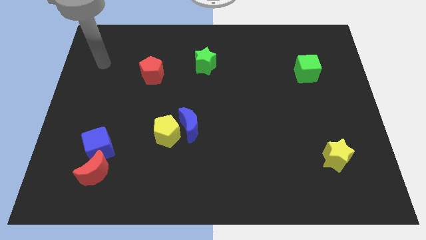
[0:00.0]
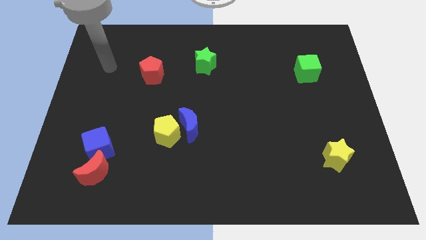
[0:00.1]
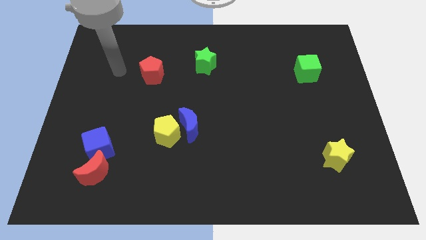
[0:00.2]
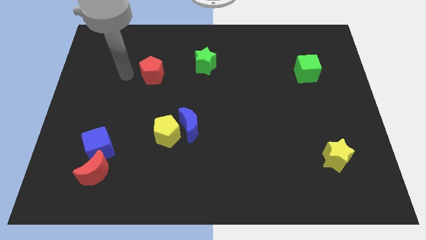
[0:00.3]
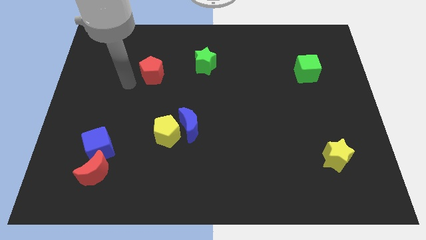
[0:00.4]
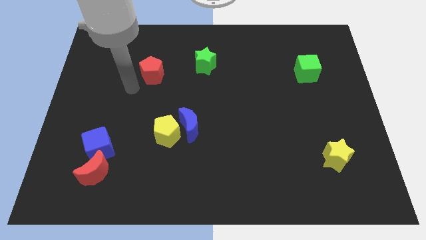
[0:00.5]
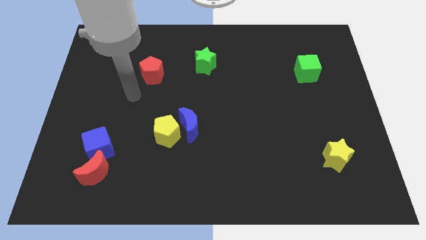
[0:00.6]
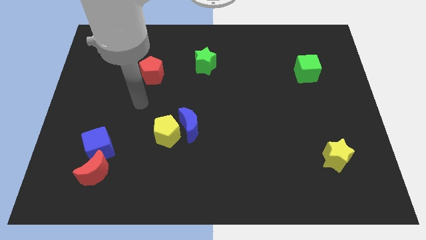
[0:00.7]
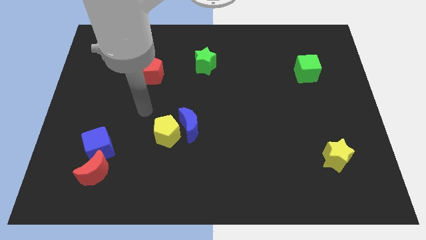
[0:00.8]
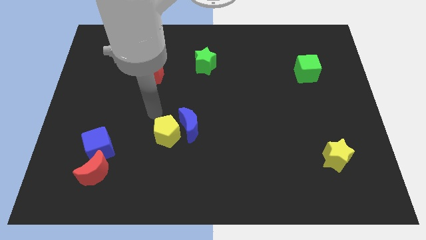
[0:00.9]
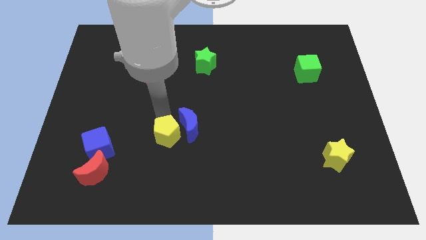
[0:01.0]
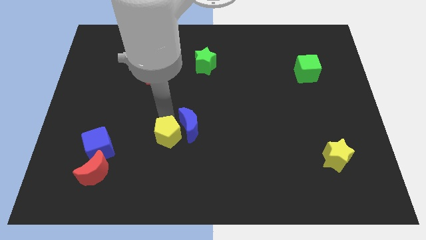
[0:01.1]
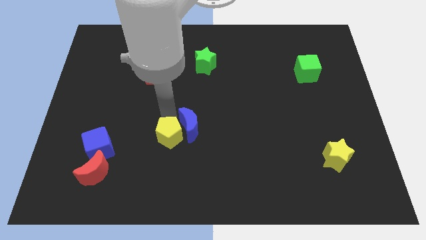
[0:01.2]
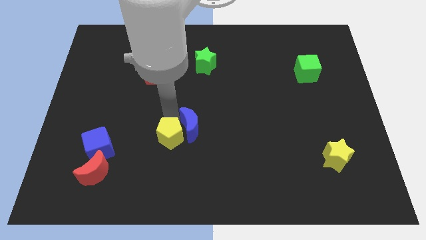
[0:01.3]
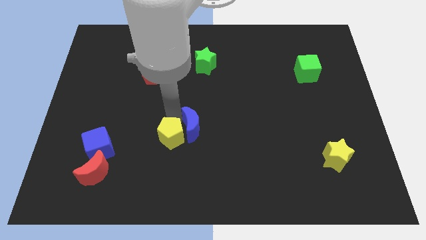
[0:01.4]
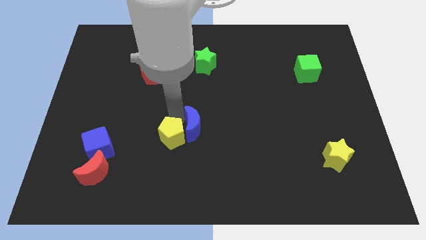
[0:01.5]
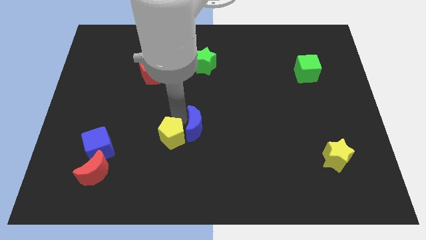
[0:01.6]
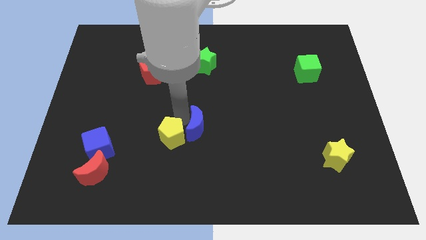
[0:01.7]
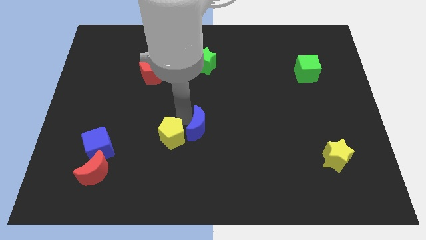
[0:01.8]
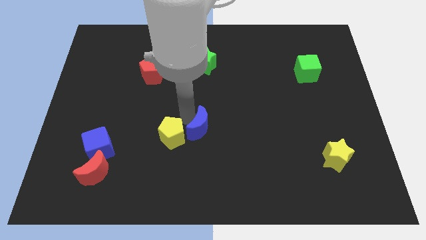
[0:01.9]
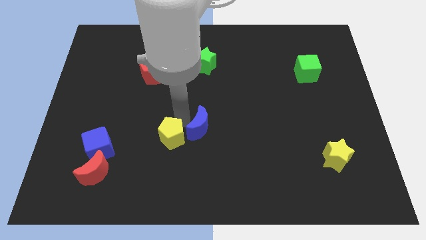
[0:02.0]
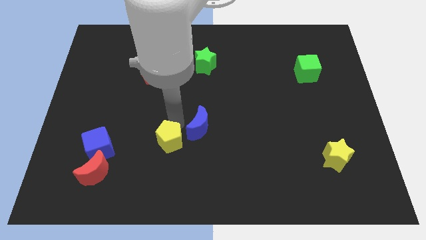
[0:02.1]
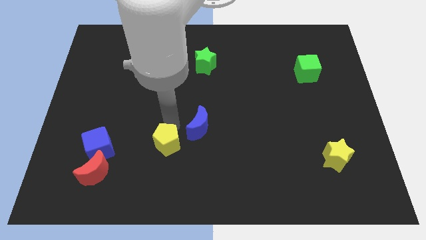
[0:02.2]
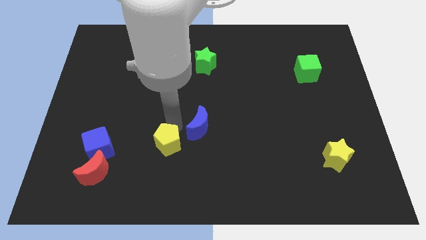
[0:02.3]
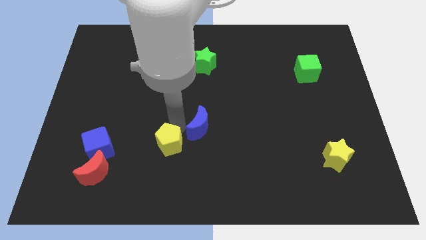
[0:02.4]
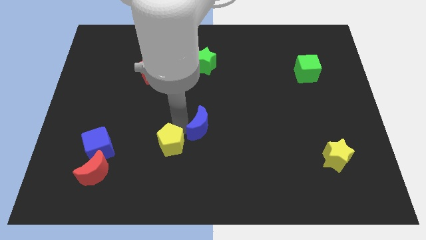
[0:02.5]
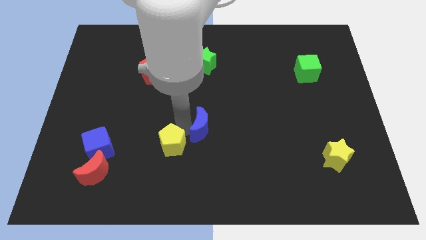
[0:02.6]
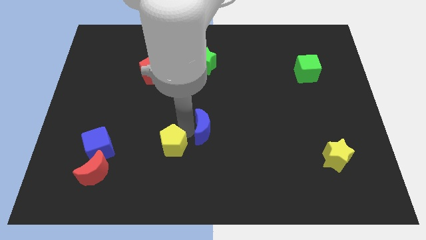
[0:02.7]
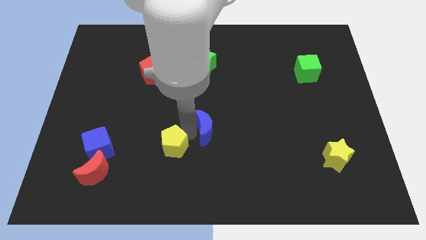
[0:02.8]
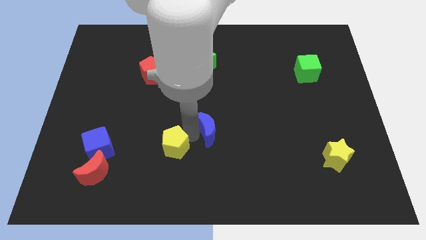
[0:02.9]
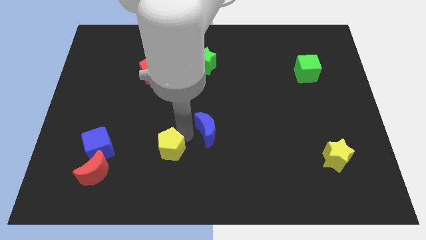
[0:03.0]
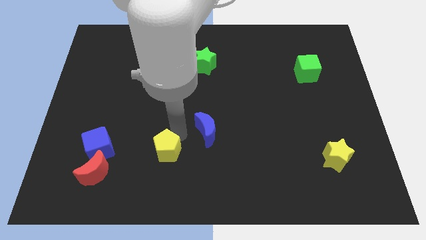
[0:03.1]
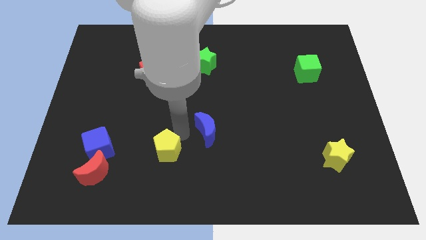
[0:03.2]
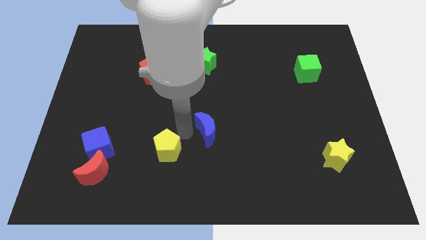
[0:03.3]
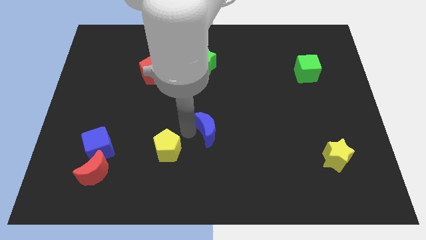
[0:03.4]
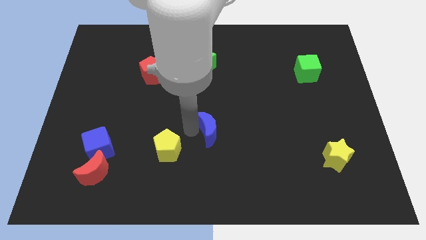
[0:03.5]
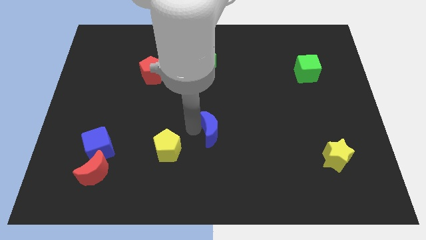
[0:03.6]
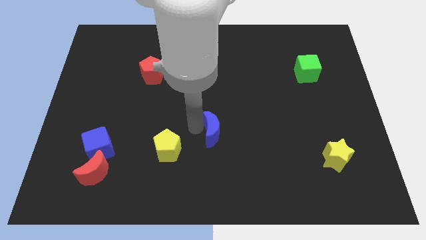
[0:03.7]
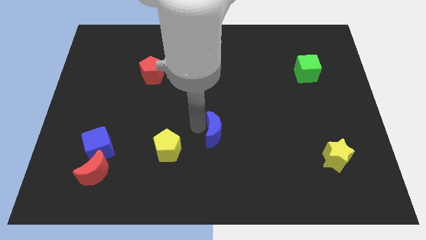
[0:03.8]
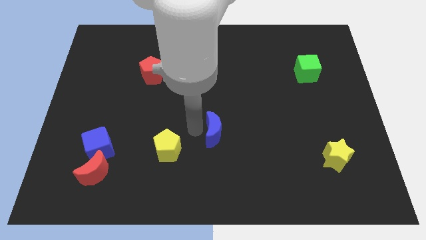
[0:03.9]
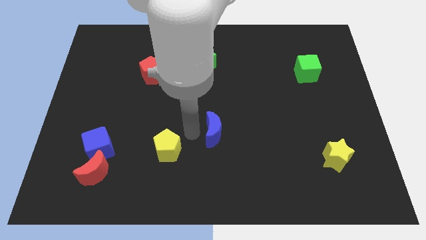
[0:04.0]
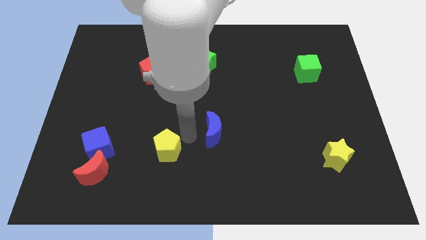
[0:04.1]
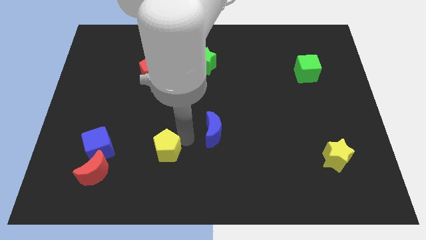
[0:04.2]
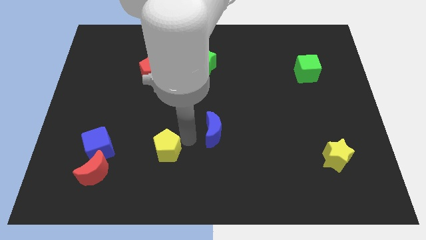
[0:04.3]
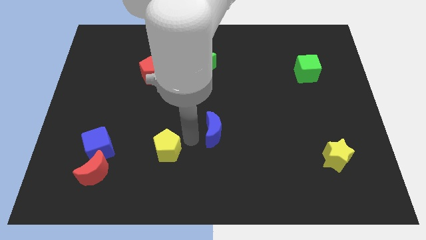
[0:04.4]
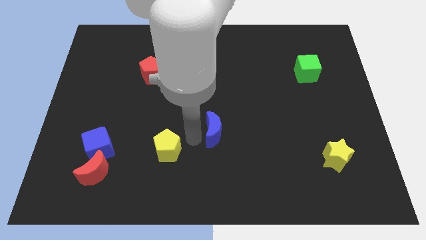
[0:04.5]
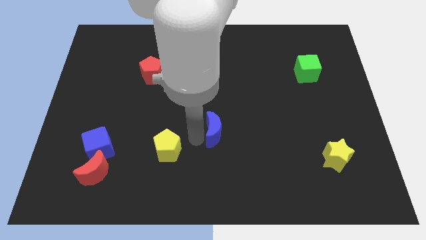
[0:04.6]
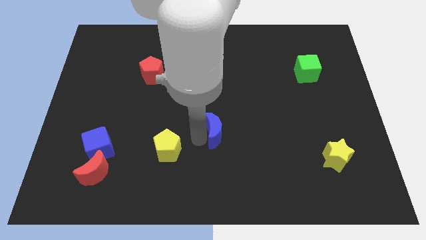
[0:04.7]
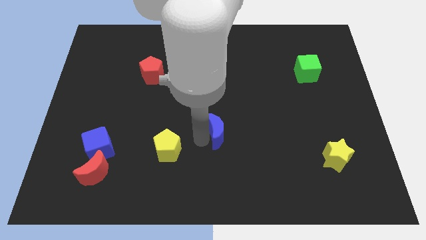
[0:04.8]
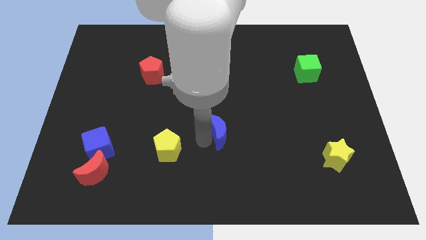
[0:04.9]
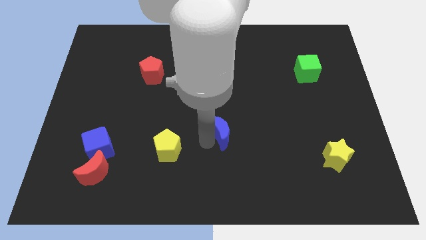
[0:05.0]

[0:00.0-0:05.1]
slightly push the blue moon to the right

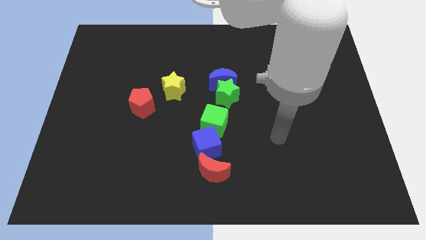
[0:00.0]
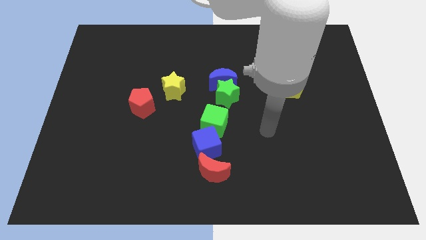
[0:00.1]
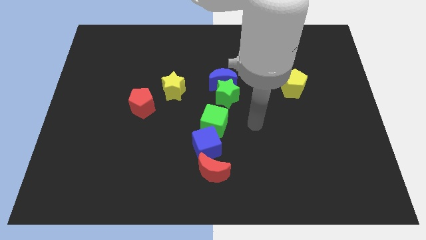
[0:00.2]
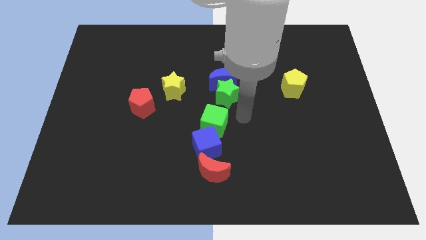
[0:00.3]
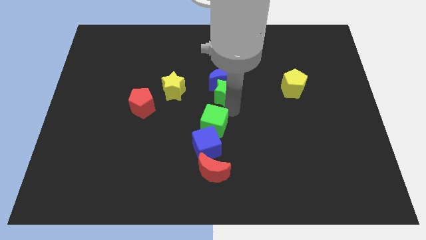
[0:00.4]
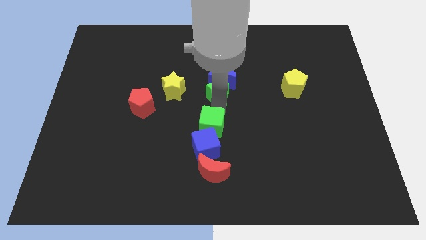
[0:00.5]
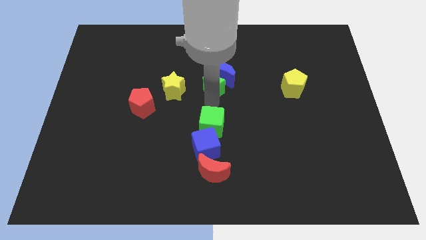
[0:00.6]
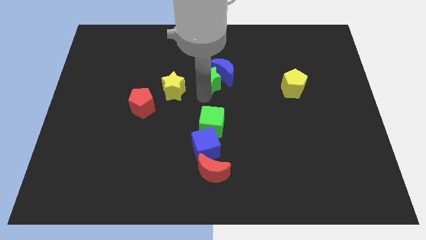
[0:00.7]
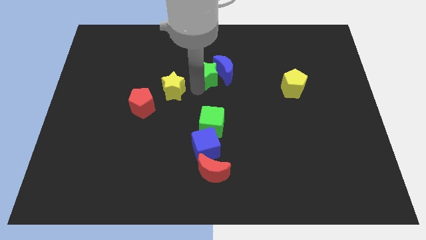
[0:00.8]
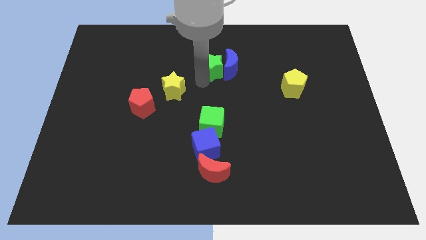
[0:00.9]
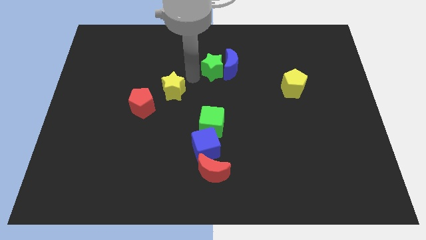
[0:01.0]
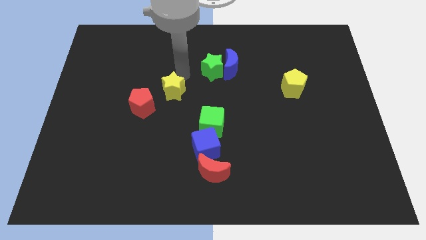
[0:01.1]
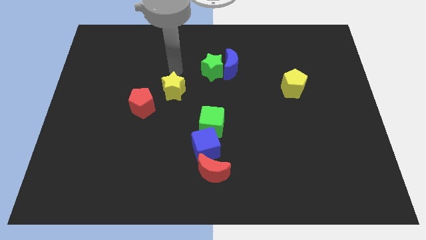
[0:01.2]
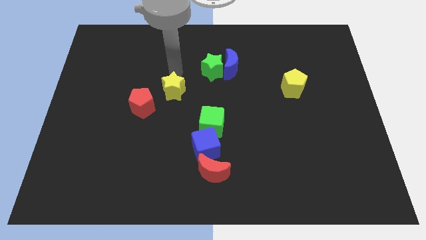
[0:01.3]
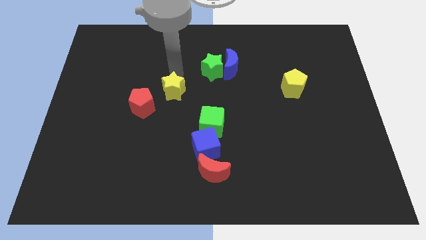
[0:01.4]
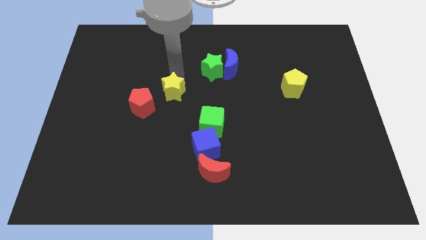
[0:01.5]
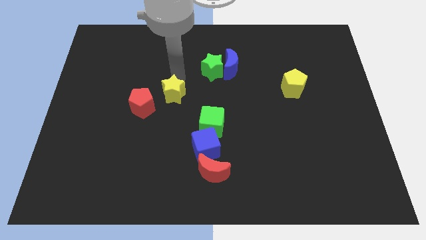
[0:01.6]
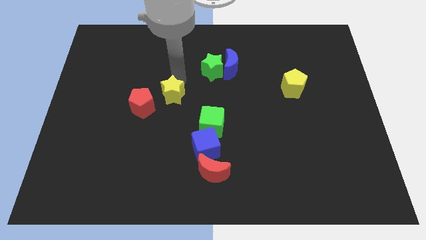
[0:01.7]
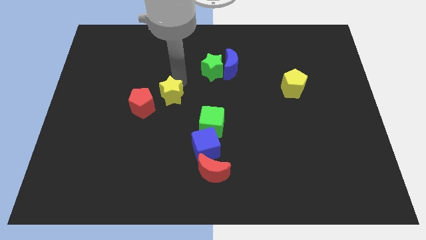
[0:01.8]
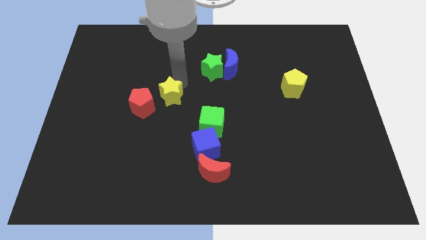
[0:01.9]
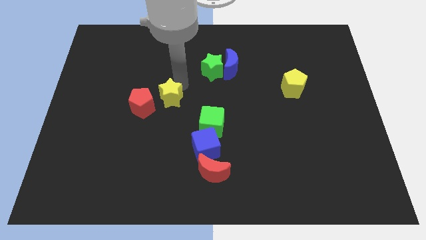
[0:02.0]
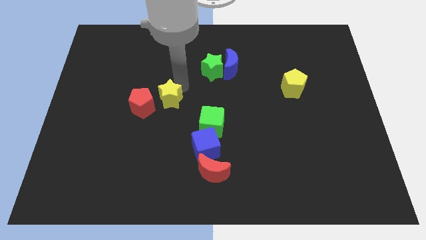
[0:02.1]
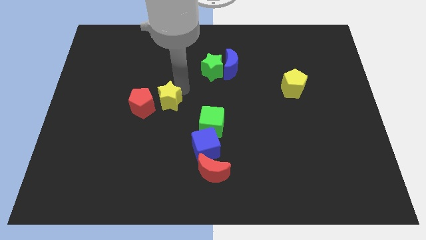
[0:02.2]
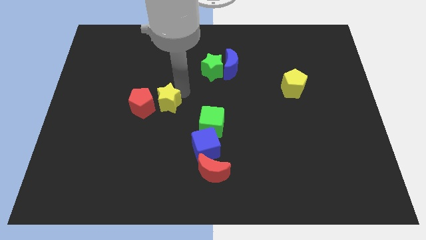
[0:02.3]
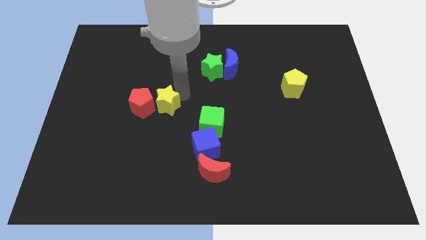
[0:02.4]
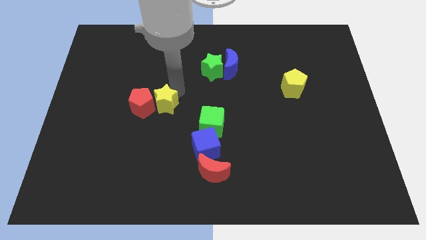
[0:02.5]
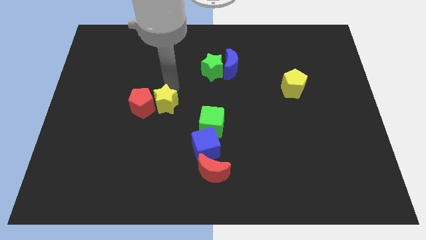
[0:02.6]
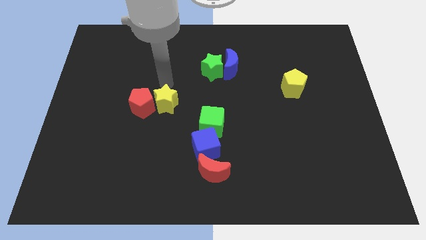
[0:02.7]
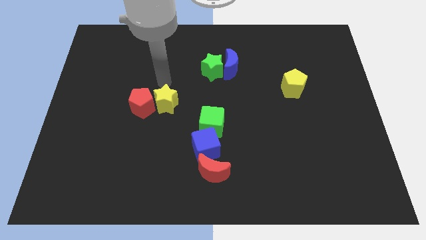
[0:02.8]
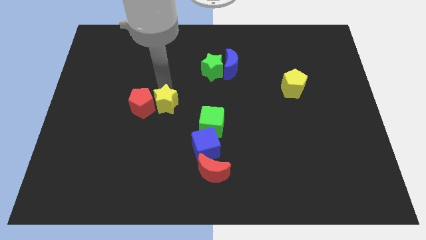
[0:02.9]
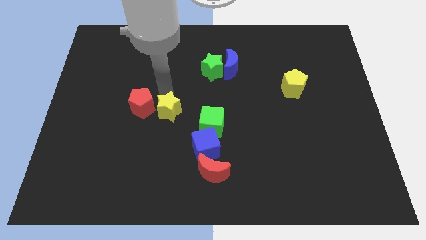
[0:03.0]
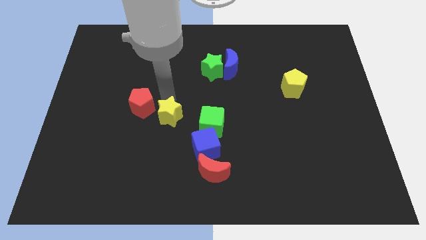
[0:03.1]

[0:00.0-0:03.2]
slightly push the yellow star downwards
